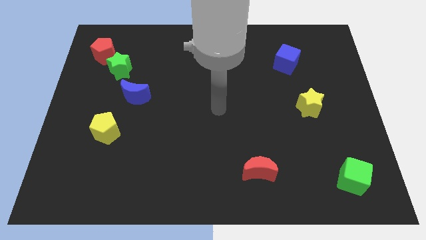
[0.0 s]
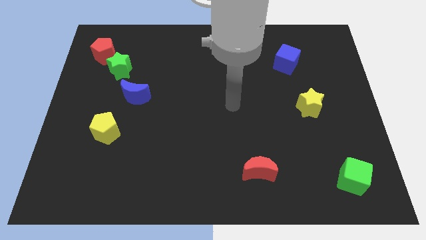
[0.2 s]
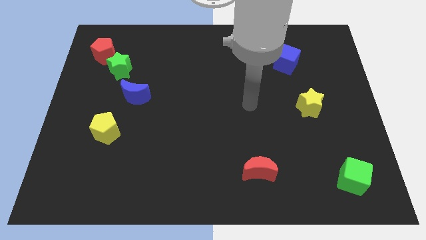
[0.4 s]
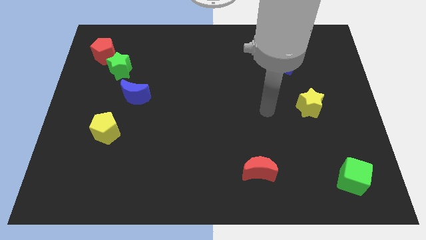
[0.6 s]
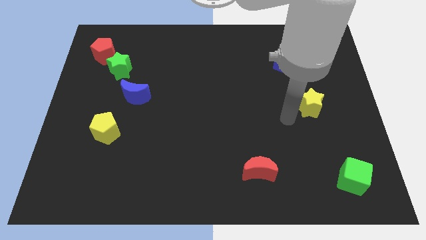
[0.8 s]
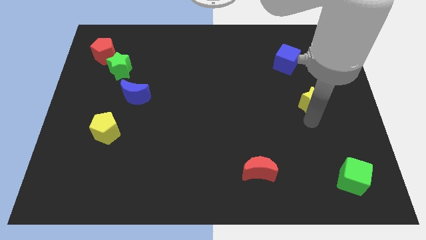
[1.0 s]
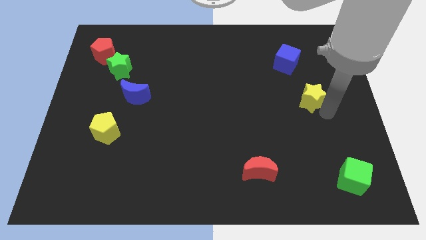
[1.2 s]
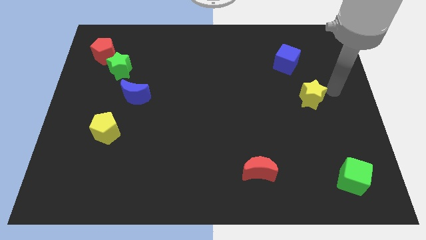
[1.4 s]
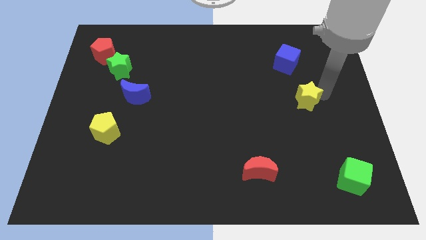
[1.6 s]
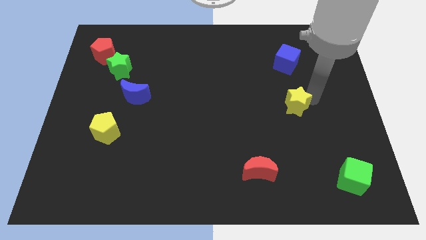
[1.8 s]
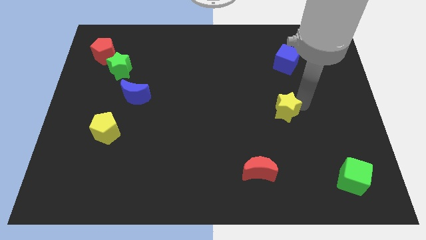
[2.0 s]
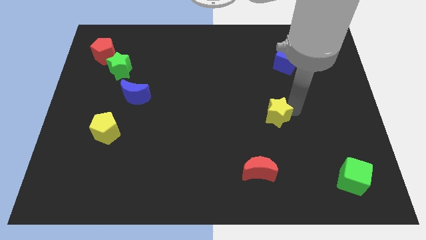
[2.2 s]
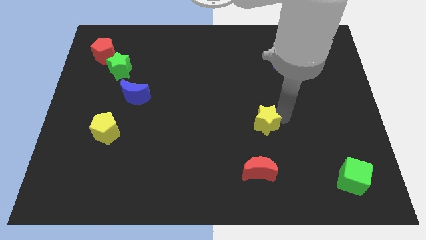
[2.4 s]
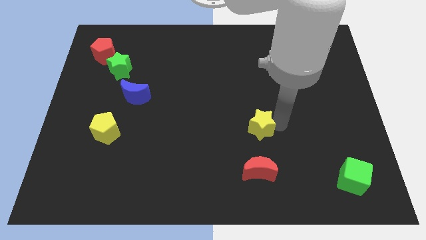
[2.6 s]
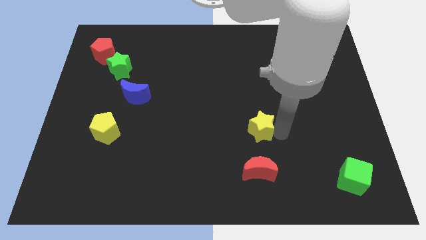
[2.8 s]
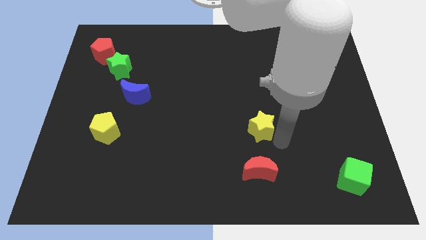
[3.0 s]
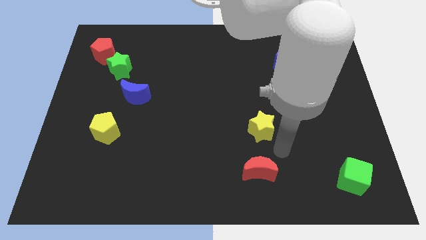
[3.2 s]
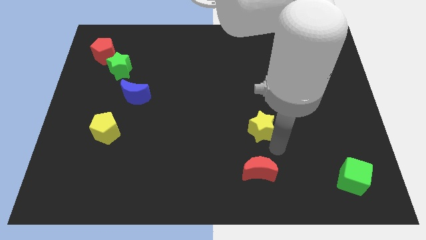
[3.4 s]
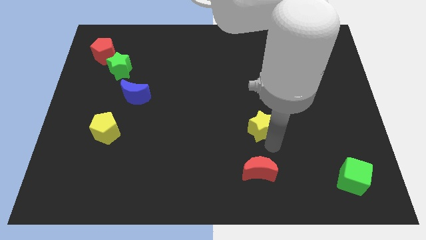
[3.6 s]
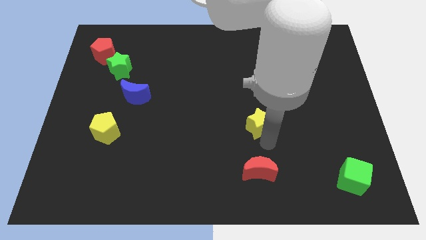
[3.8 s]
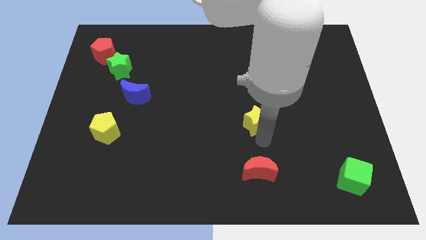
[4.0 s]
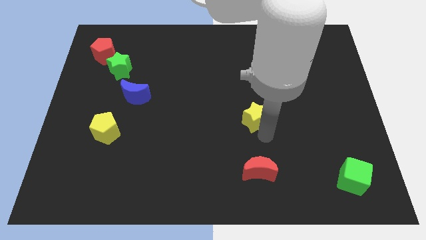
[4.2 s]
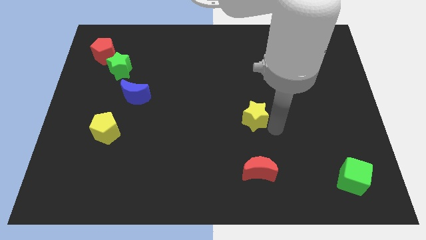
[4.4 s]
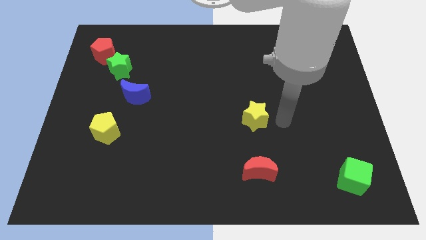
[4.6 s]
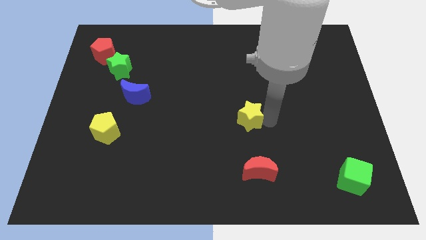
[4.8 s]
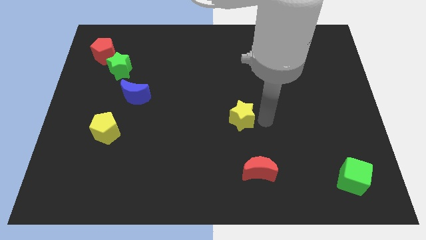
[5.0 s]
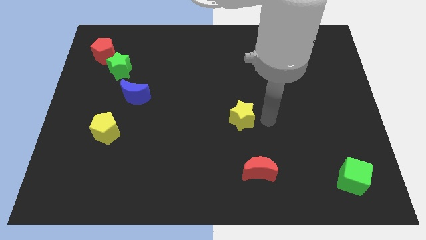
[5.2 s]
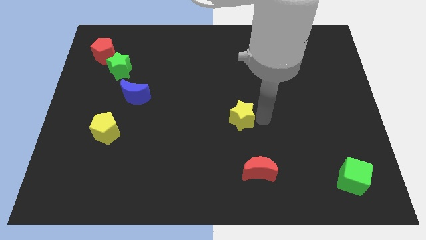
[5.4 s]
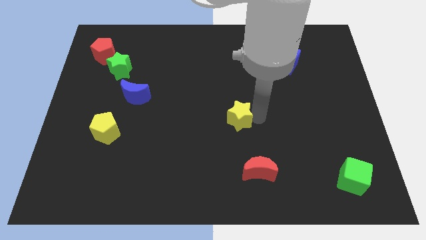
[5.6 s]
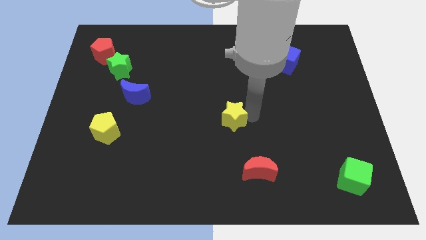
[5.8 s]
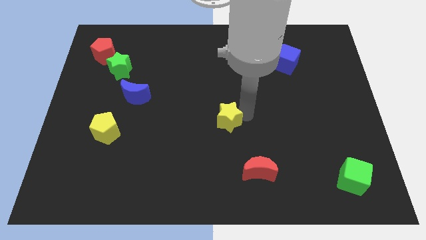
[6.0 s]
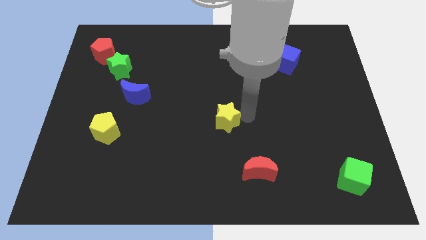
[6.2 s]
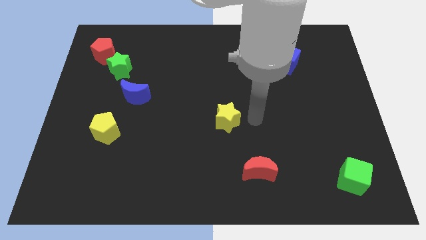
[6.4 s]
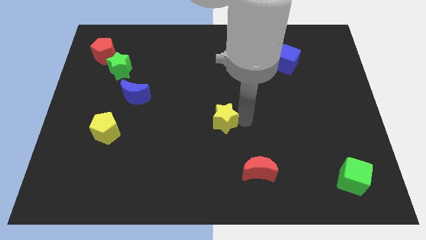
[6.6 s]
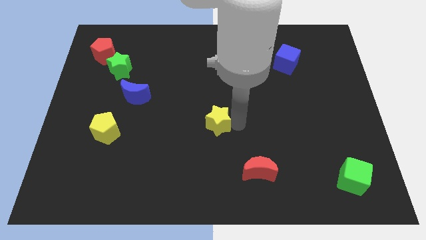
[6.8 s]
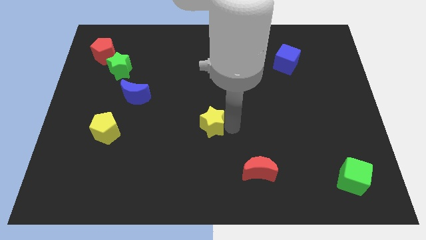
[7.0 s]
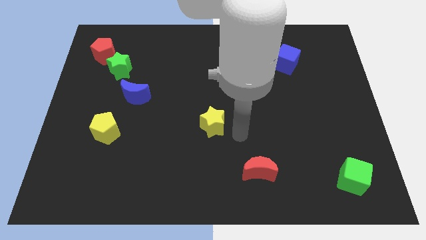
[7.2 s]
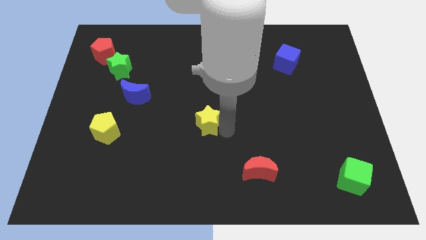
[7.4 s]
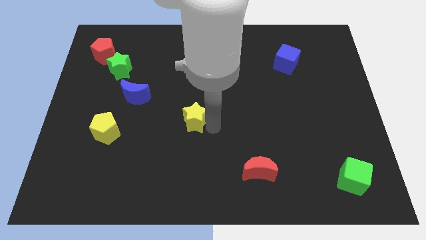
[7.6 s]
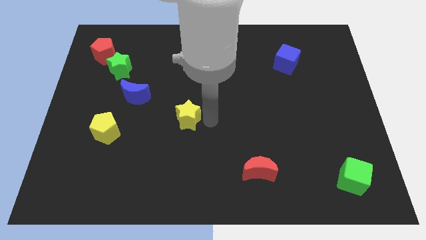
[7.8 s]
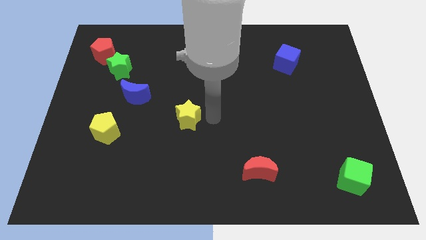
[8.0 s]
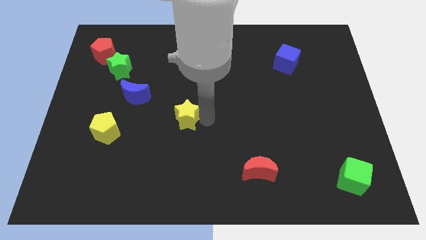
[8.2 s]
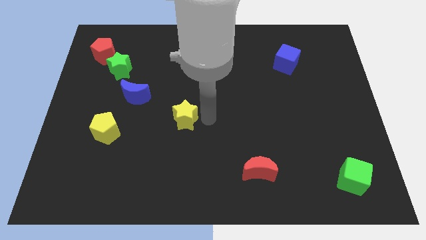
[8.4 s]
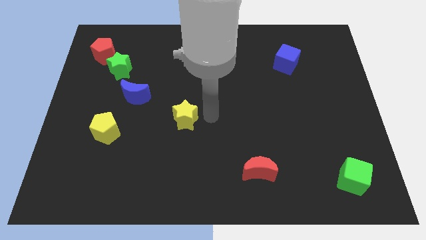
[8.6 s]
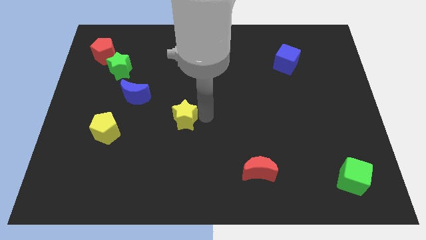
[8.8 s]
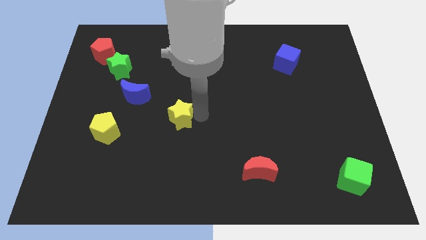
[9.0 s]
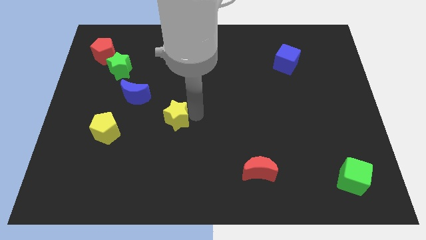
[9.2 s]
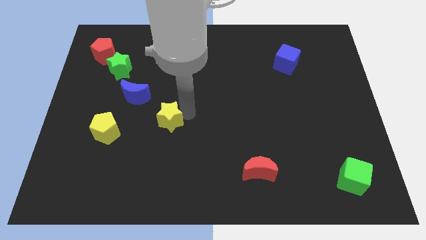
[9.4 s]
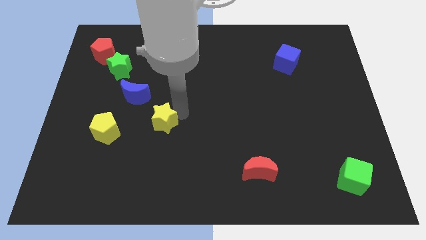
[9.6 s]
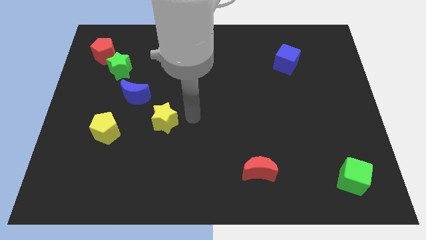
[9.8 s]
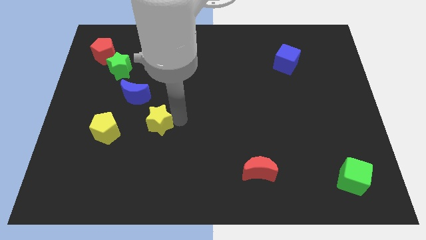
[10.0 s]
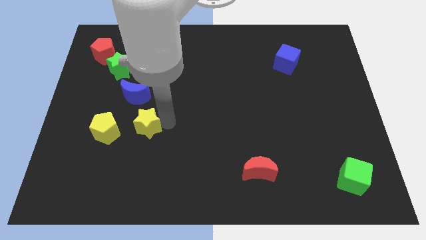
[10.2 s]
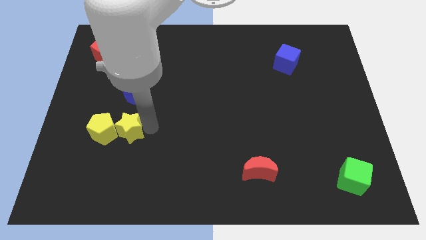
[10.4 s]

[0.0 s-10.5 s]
push the yellow star next to the yellow pentagon

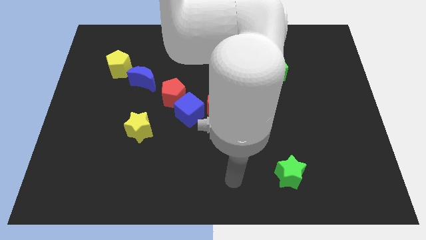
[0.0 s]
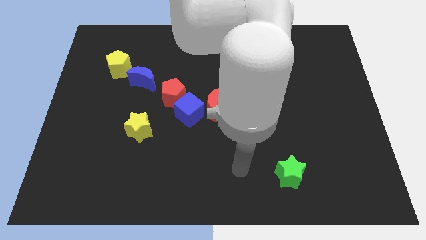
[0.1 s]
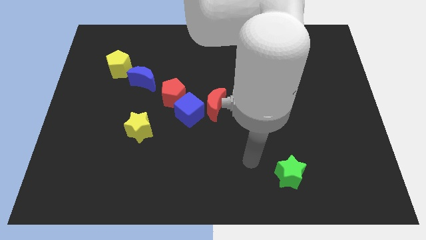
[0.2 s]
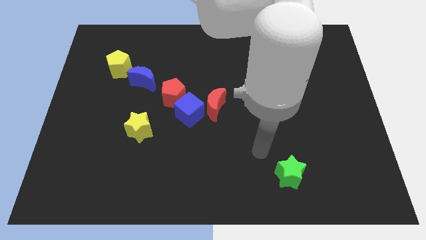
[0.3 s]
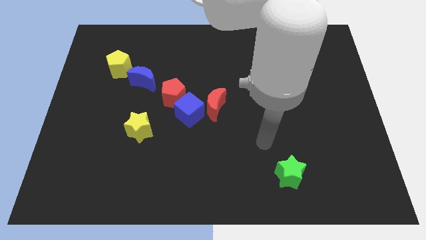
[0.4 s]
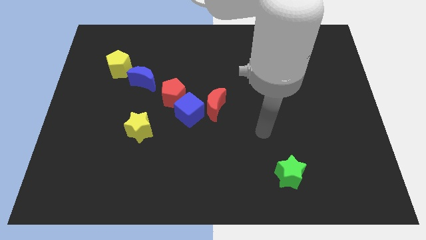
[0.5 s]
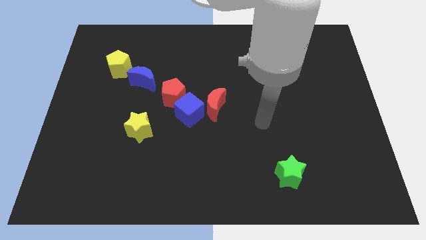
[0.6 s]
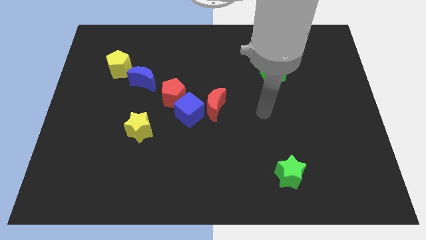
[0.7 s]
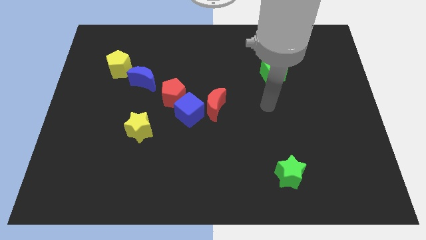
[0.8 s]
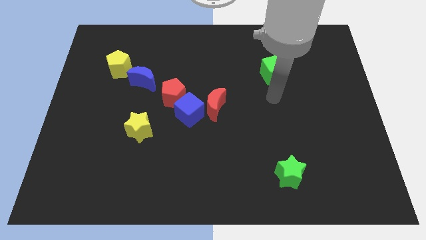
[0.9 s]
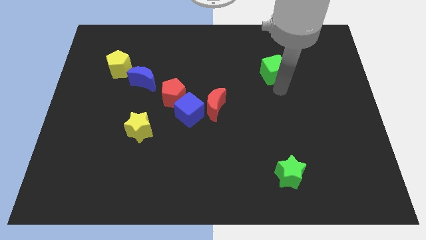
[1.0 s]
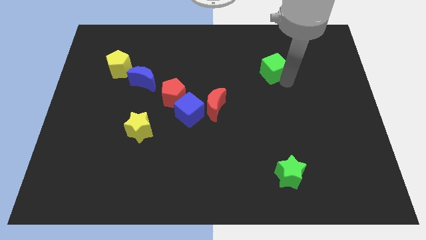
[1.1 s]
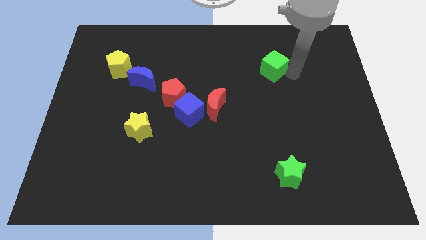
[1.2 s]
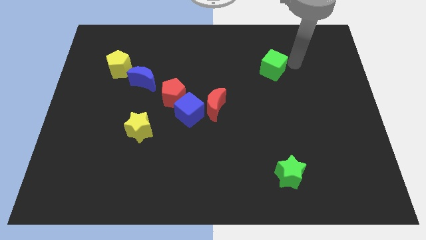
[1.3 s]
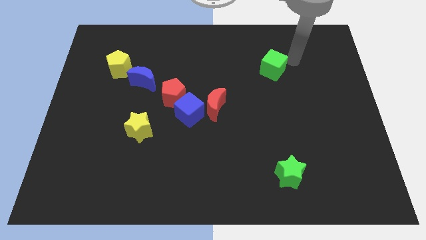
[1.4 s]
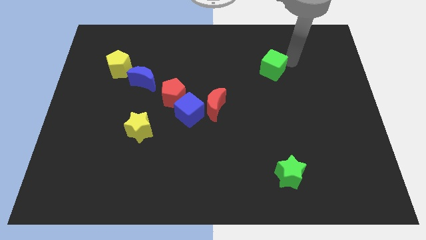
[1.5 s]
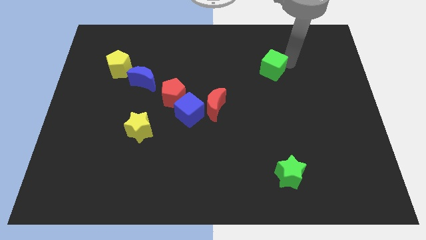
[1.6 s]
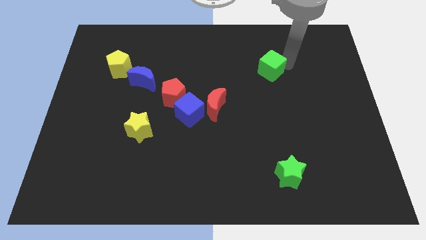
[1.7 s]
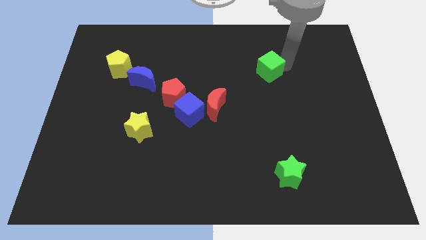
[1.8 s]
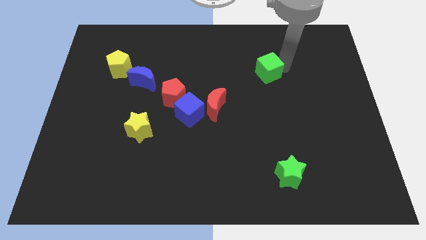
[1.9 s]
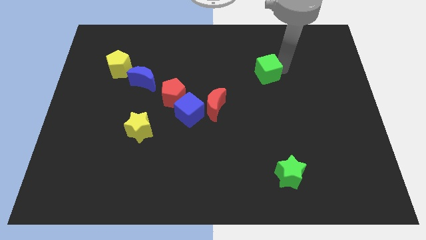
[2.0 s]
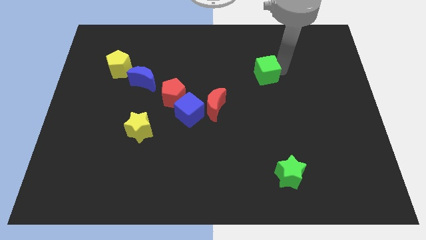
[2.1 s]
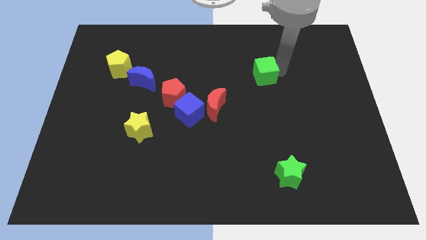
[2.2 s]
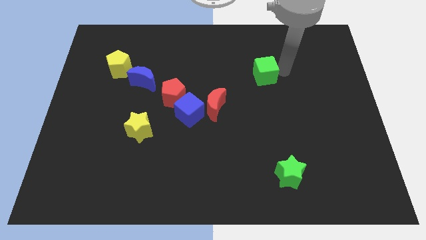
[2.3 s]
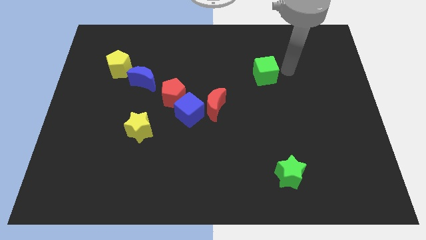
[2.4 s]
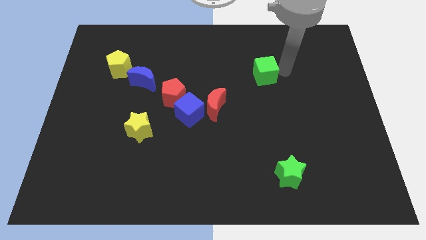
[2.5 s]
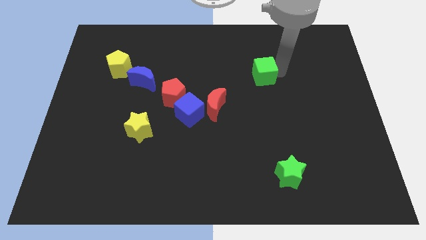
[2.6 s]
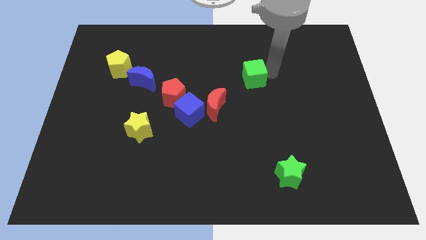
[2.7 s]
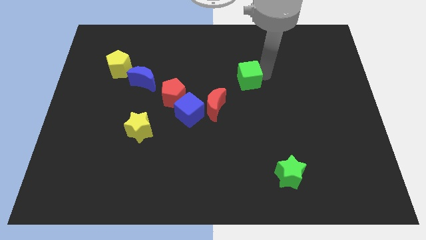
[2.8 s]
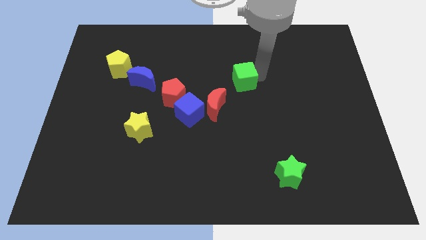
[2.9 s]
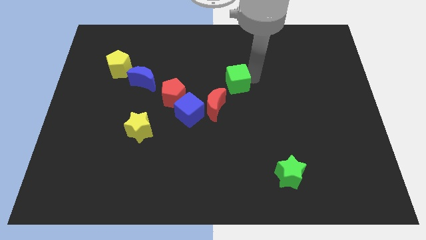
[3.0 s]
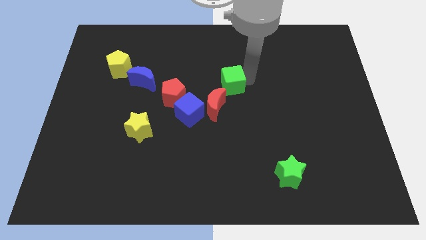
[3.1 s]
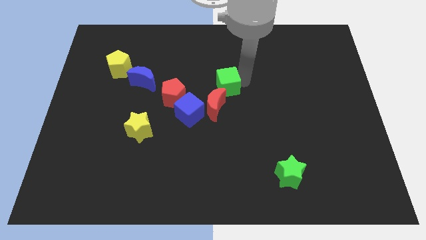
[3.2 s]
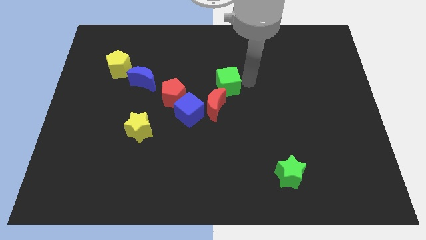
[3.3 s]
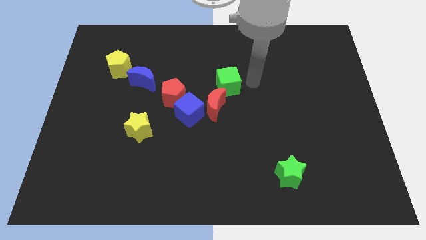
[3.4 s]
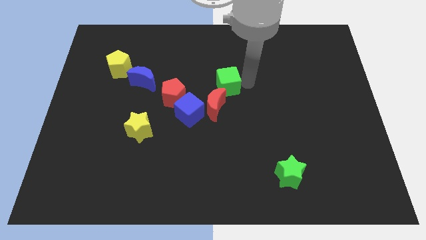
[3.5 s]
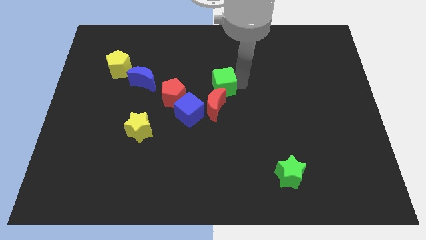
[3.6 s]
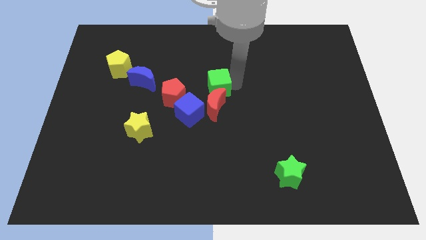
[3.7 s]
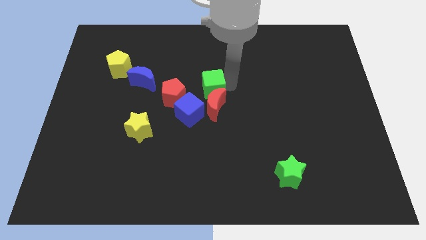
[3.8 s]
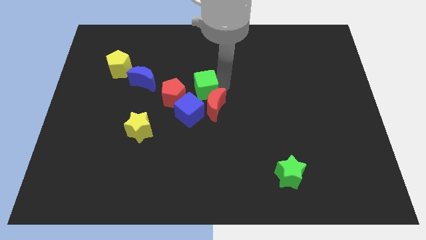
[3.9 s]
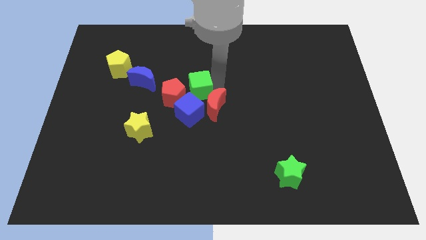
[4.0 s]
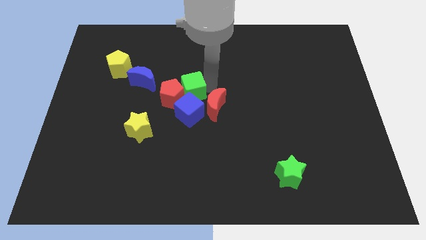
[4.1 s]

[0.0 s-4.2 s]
slide the green cube towards the red pentagon
